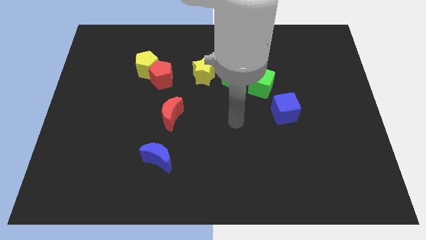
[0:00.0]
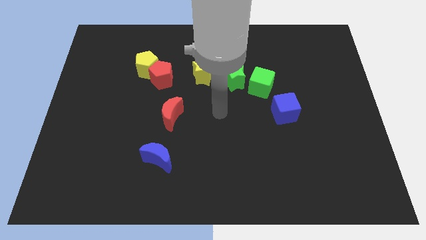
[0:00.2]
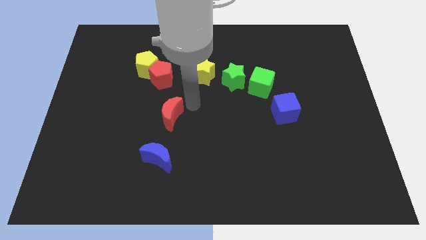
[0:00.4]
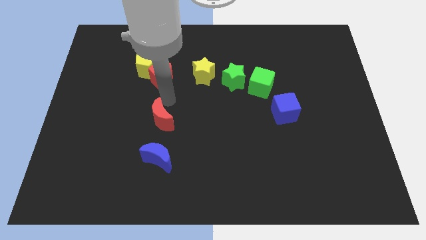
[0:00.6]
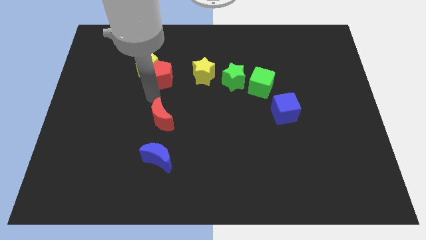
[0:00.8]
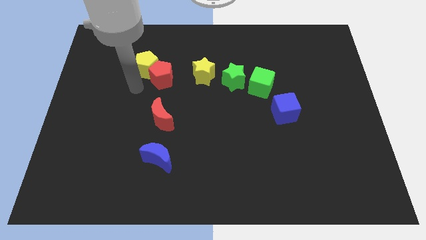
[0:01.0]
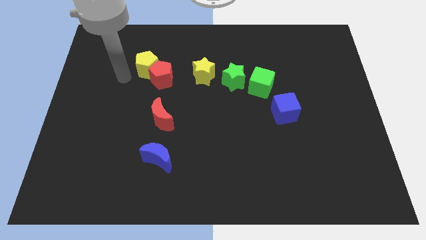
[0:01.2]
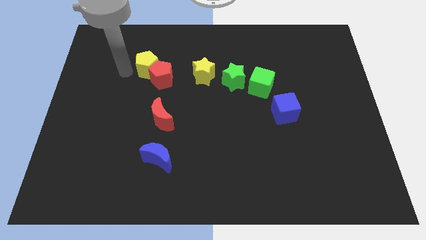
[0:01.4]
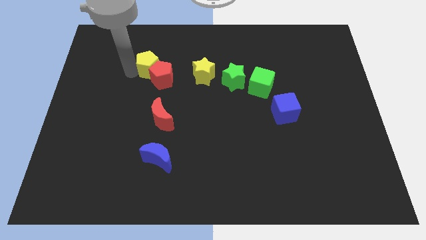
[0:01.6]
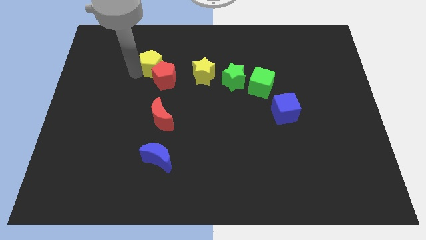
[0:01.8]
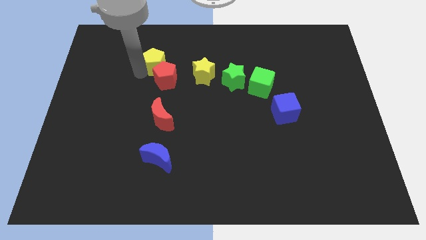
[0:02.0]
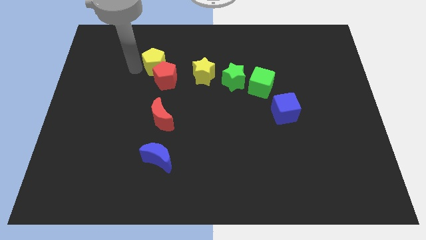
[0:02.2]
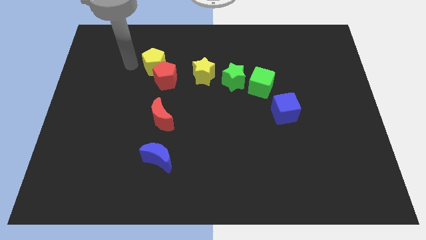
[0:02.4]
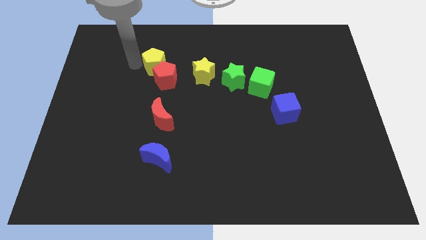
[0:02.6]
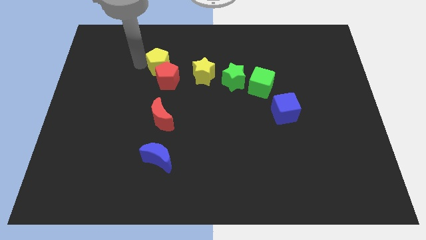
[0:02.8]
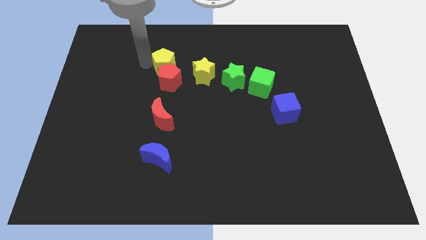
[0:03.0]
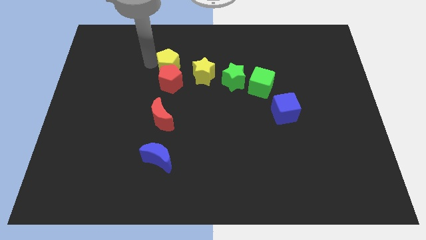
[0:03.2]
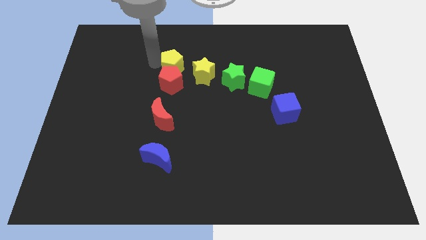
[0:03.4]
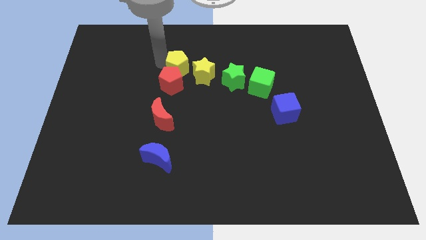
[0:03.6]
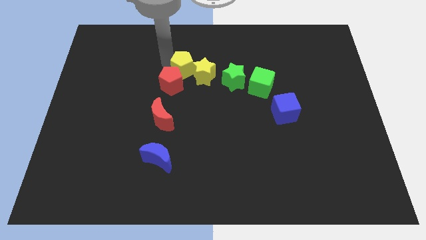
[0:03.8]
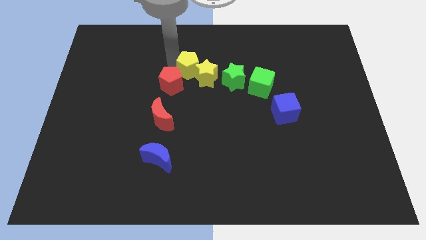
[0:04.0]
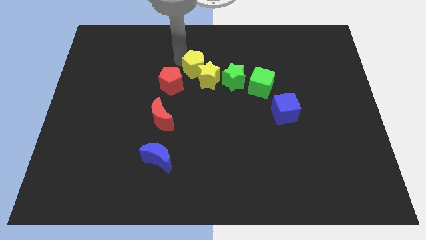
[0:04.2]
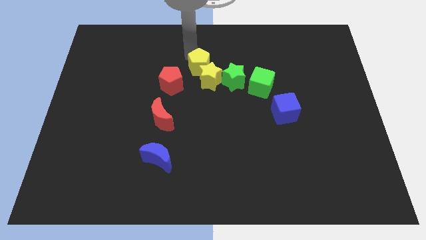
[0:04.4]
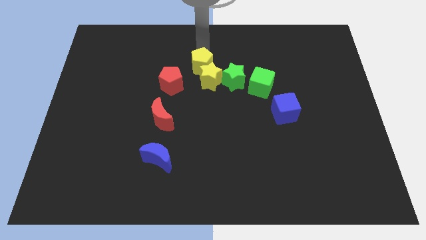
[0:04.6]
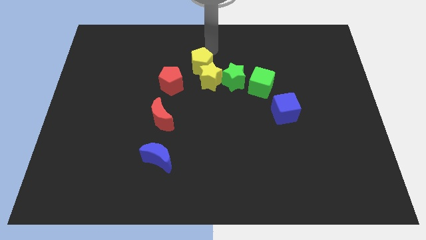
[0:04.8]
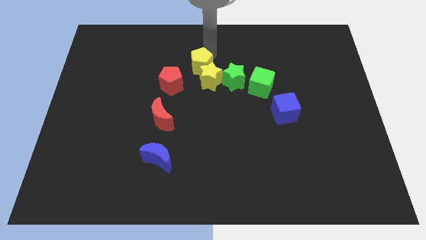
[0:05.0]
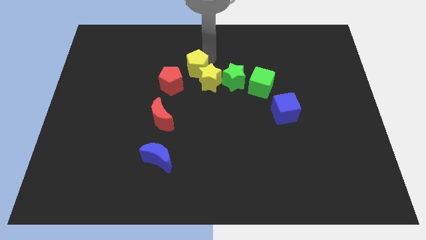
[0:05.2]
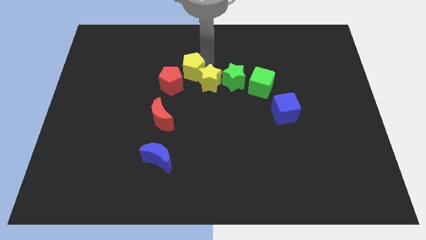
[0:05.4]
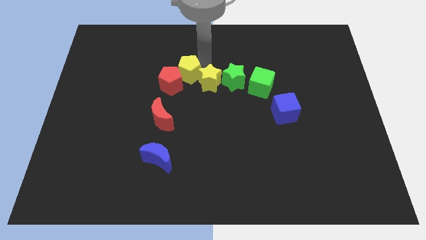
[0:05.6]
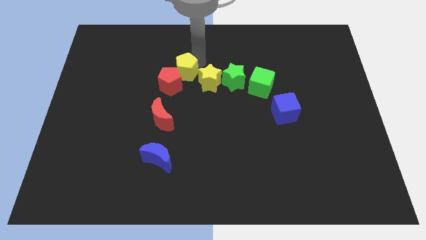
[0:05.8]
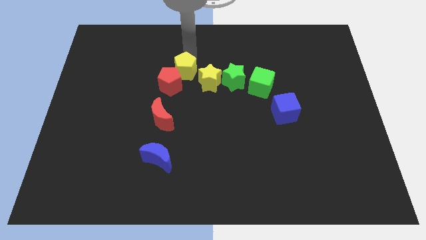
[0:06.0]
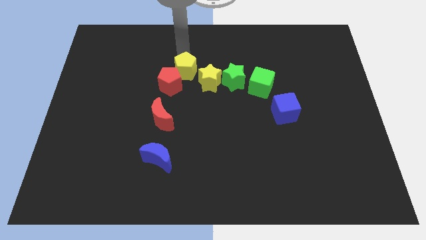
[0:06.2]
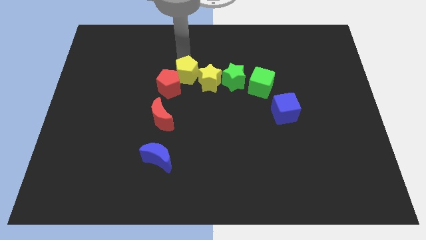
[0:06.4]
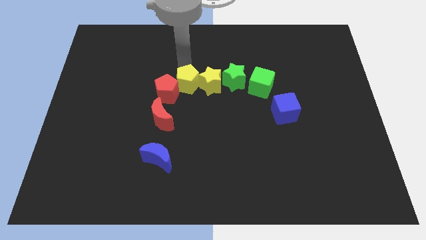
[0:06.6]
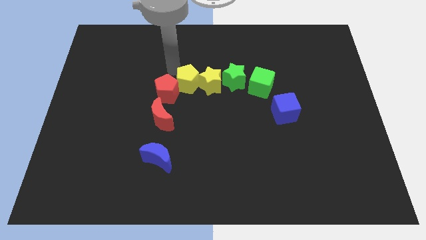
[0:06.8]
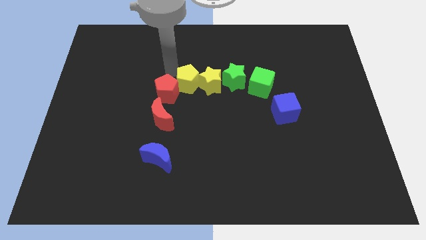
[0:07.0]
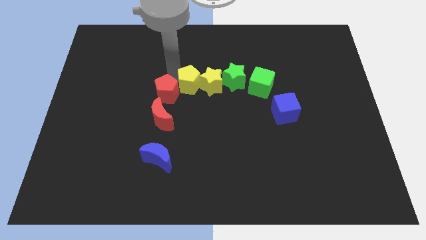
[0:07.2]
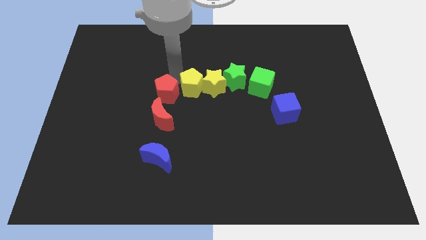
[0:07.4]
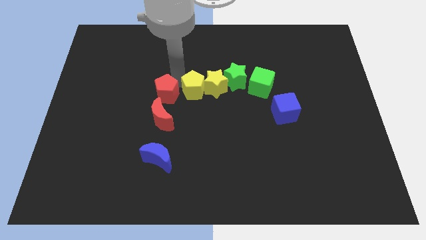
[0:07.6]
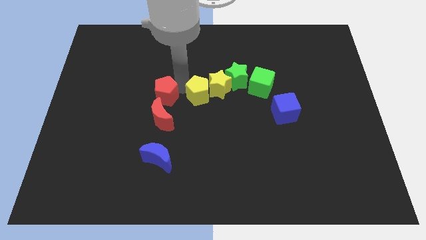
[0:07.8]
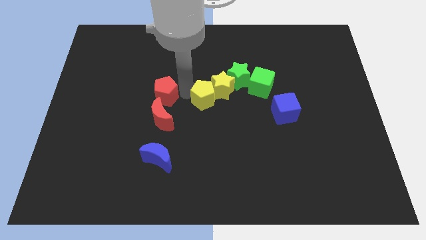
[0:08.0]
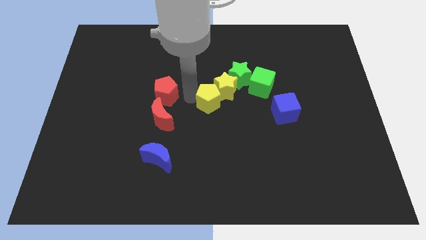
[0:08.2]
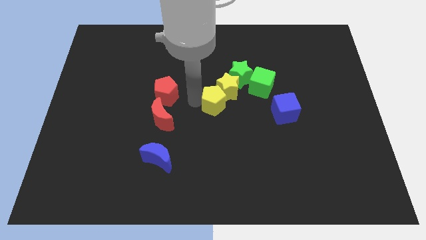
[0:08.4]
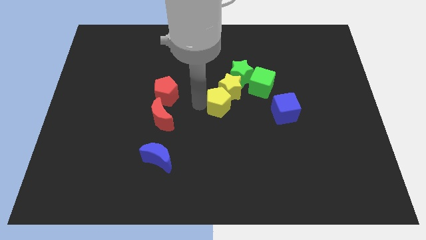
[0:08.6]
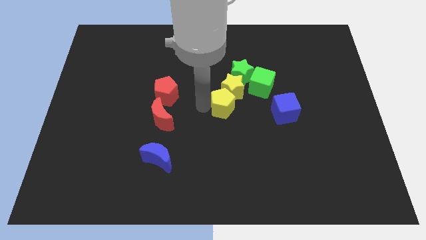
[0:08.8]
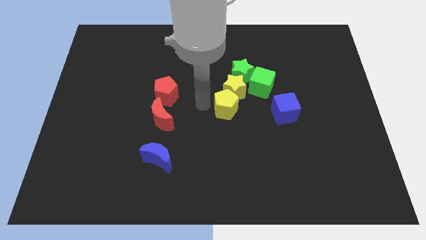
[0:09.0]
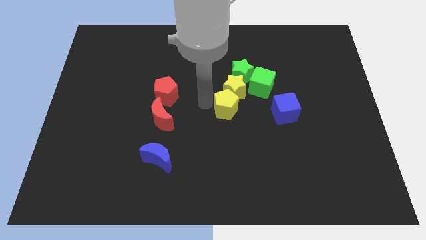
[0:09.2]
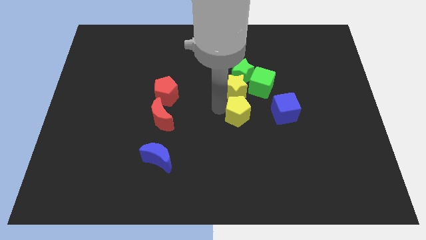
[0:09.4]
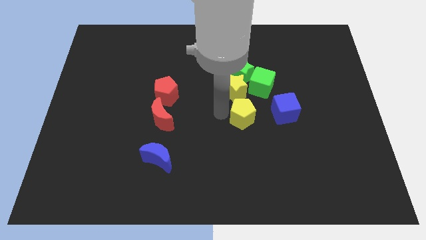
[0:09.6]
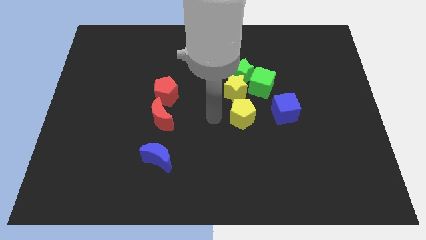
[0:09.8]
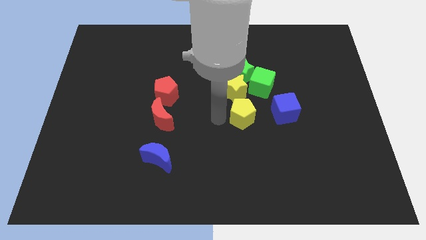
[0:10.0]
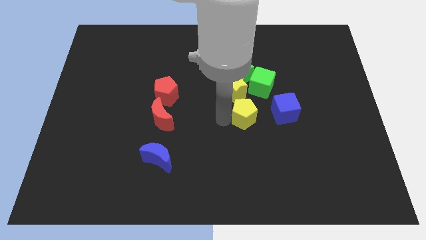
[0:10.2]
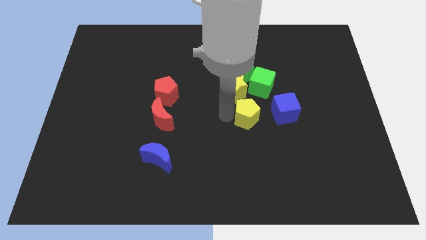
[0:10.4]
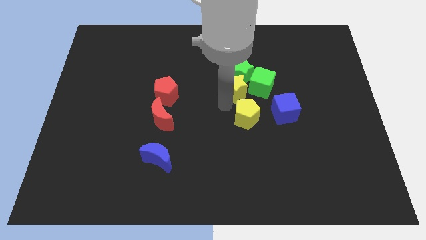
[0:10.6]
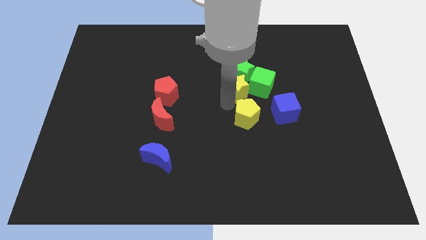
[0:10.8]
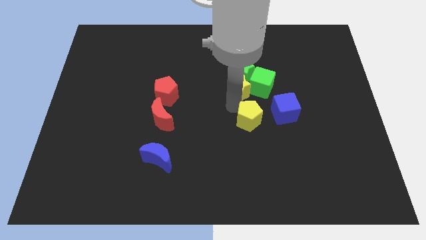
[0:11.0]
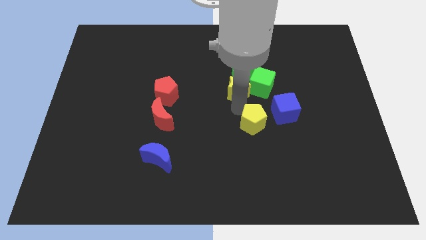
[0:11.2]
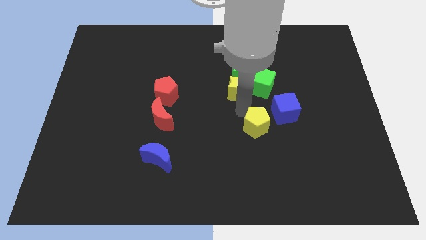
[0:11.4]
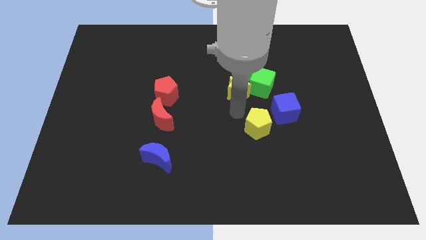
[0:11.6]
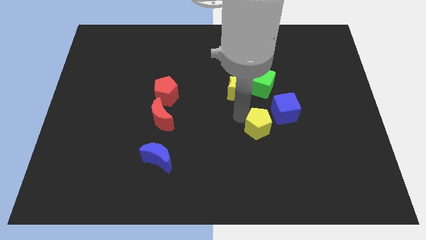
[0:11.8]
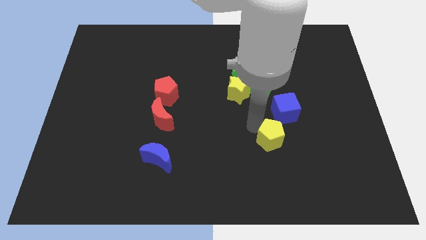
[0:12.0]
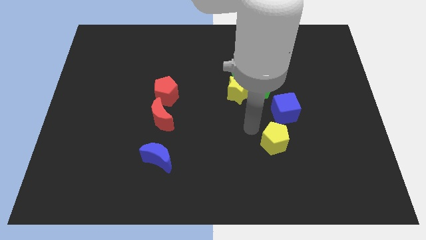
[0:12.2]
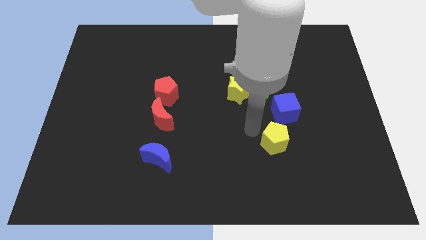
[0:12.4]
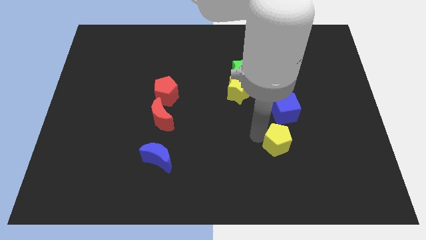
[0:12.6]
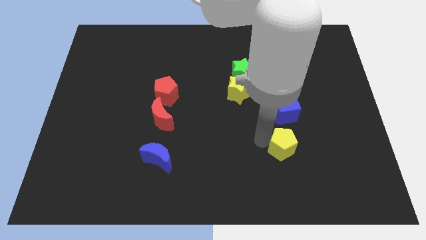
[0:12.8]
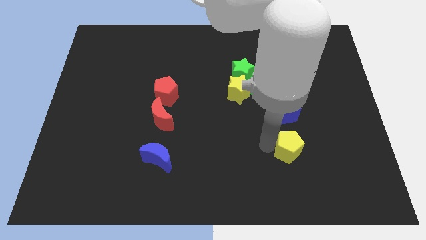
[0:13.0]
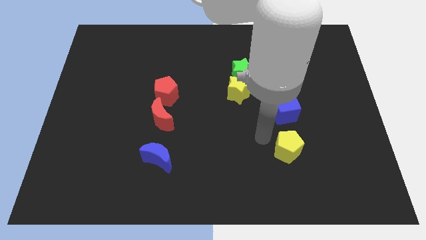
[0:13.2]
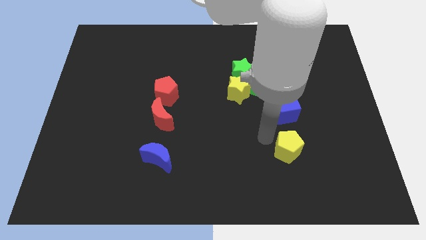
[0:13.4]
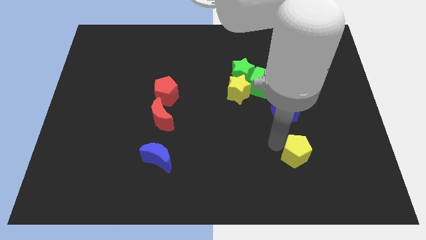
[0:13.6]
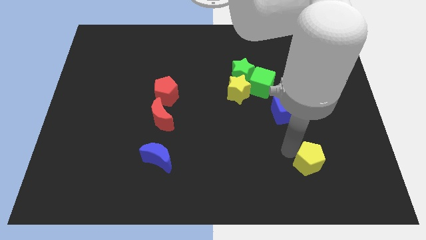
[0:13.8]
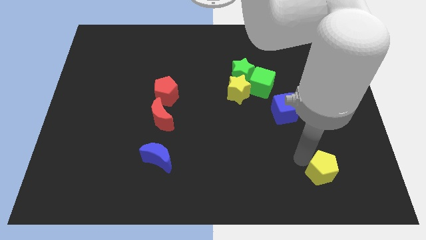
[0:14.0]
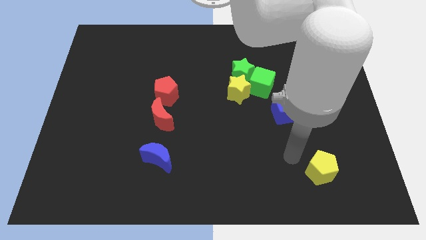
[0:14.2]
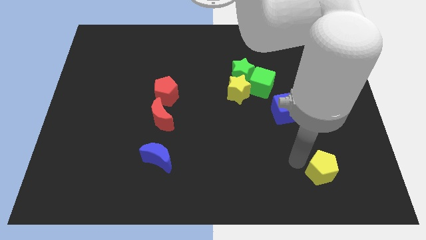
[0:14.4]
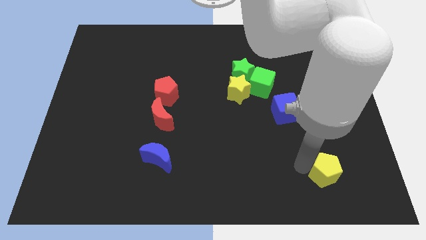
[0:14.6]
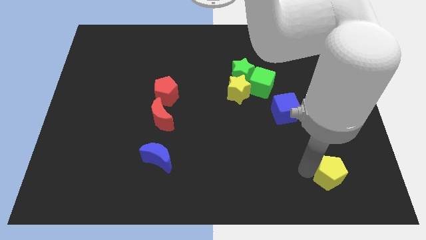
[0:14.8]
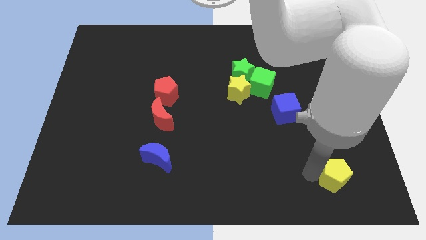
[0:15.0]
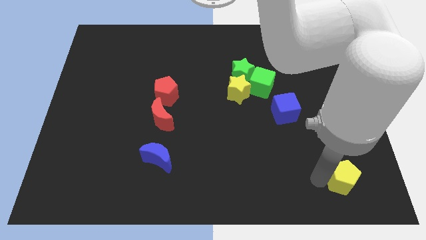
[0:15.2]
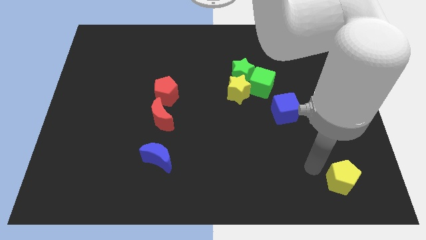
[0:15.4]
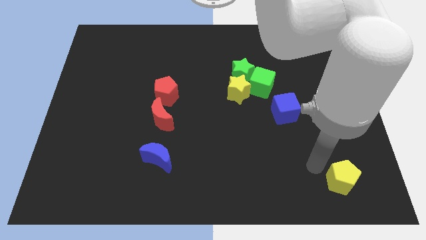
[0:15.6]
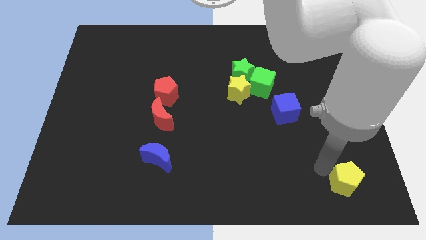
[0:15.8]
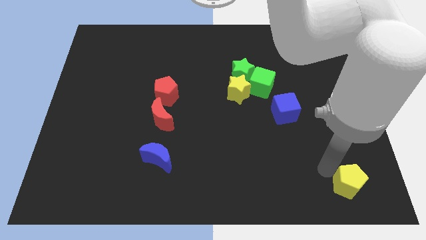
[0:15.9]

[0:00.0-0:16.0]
move the yellow pentagon to the bottom right
